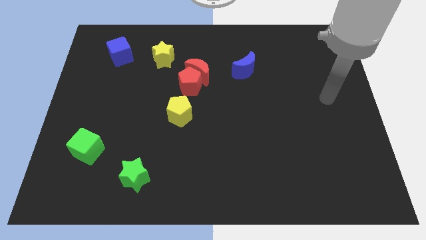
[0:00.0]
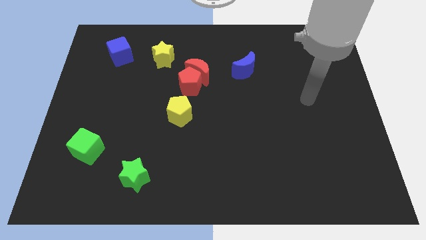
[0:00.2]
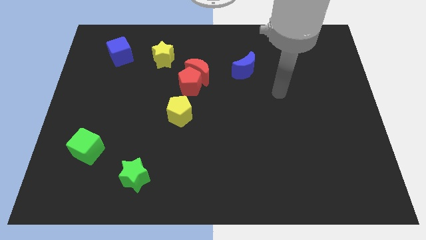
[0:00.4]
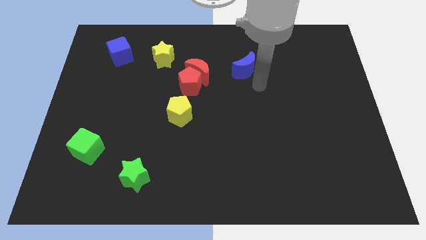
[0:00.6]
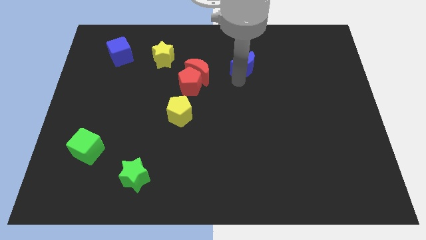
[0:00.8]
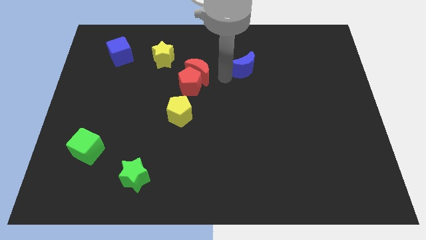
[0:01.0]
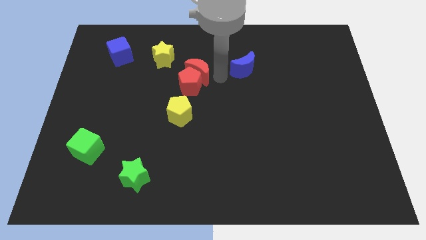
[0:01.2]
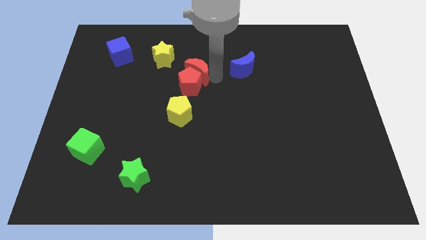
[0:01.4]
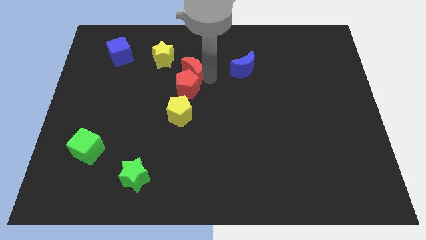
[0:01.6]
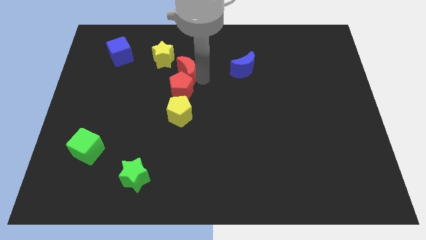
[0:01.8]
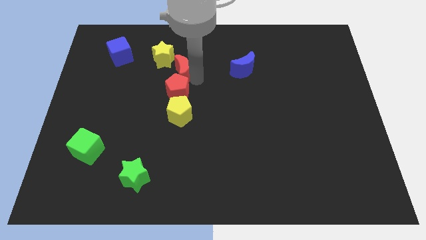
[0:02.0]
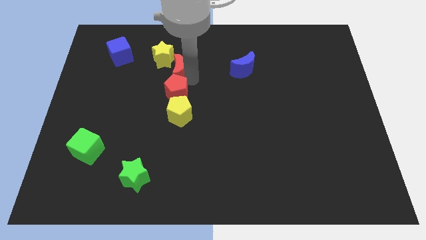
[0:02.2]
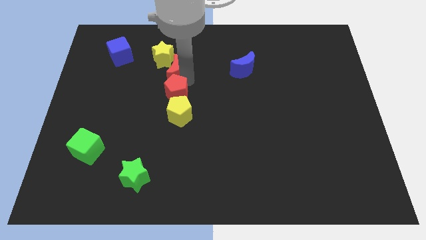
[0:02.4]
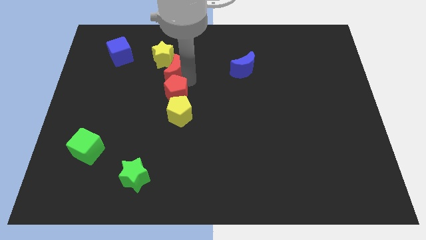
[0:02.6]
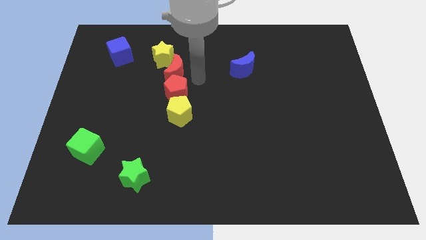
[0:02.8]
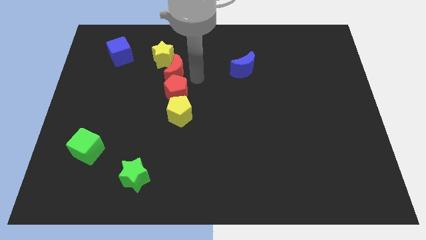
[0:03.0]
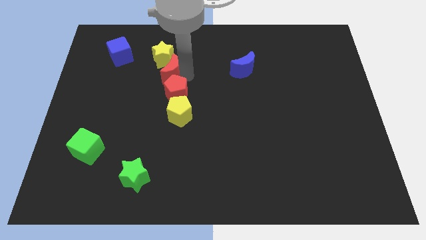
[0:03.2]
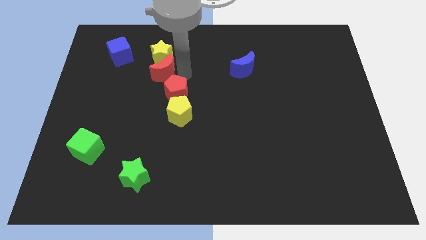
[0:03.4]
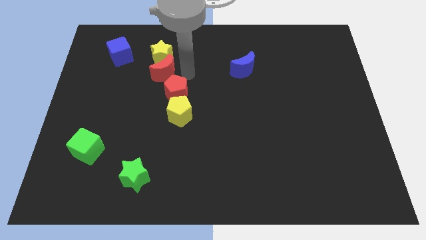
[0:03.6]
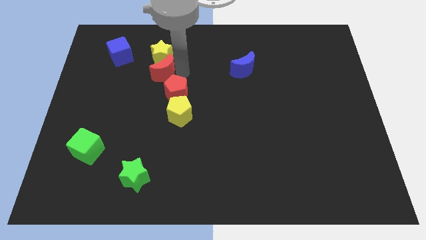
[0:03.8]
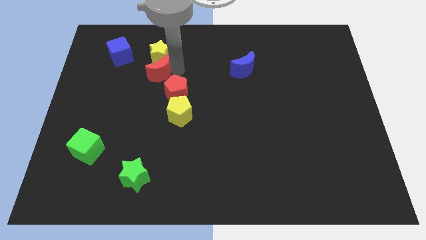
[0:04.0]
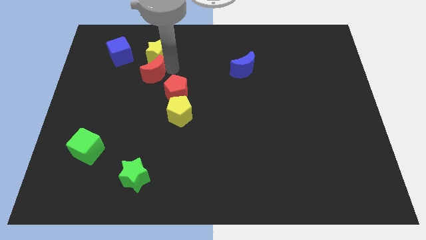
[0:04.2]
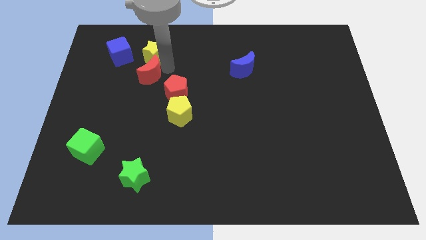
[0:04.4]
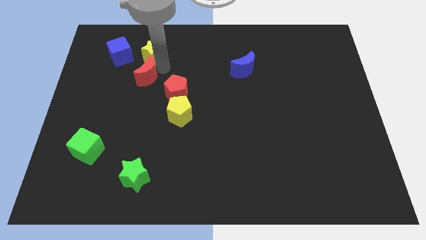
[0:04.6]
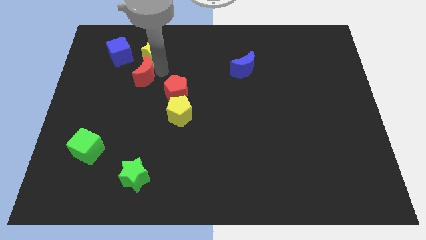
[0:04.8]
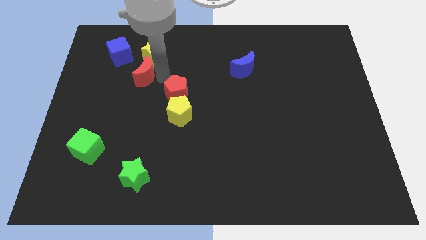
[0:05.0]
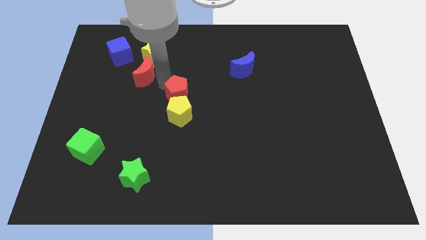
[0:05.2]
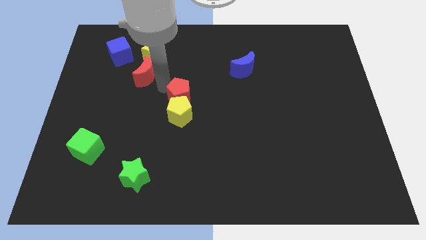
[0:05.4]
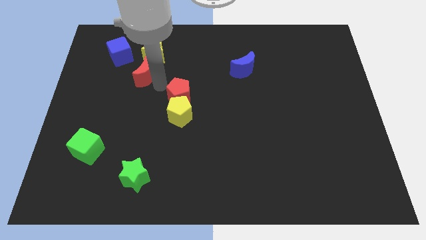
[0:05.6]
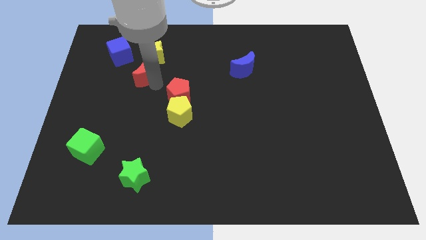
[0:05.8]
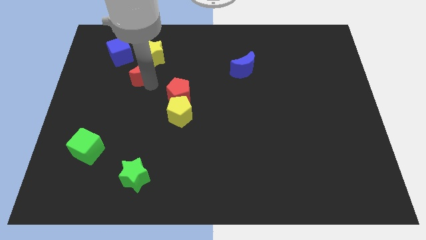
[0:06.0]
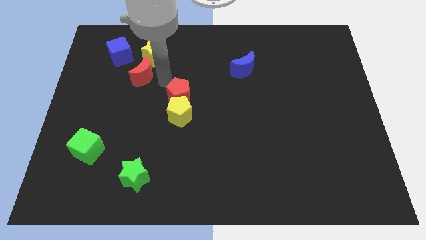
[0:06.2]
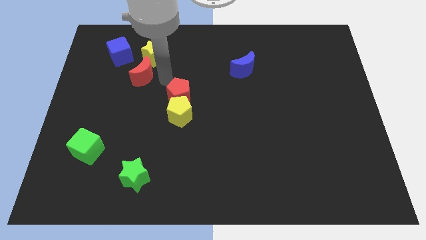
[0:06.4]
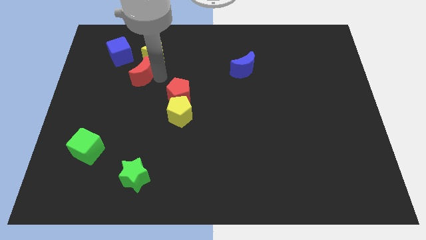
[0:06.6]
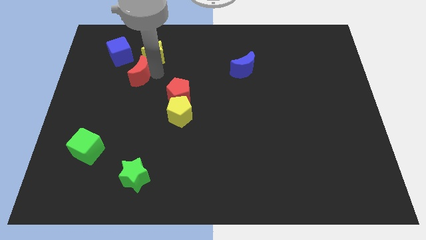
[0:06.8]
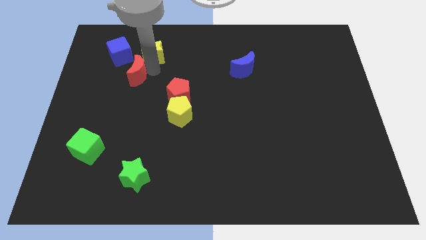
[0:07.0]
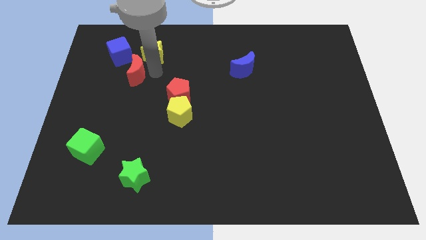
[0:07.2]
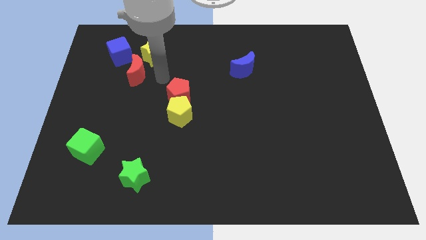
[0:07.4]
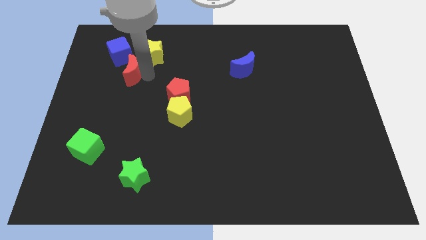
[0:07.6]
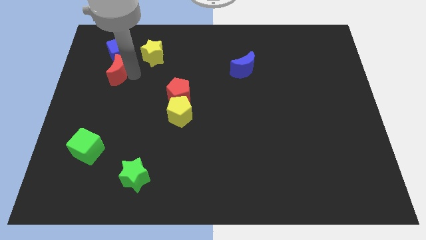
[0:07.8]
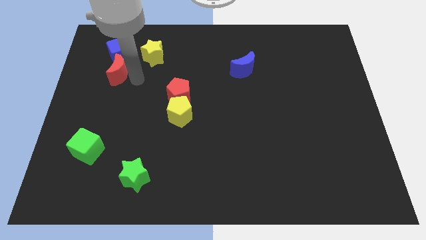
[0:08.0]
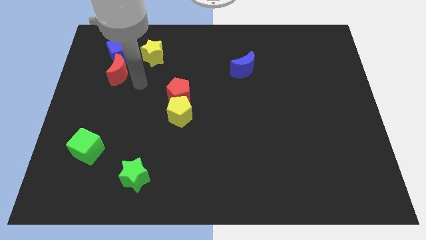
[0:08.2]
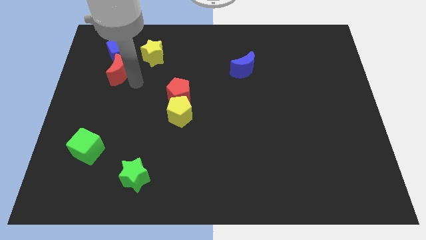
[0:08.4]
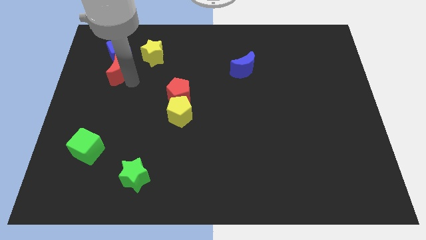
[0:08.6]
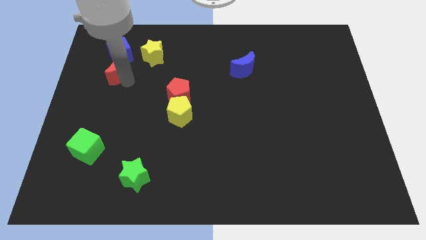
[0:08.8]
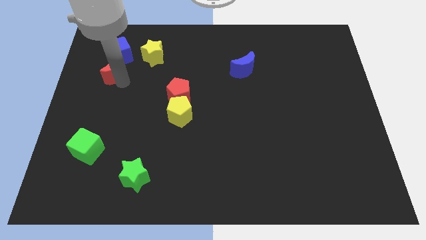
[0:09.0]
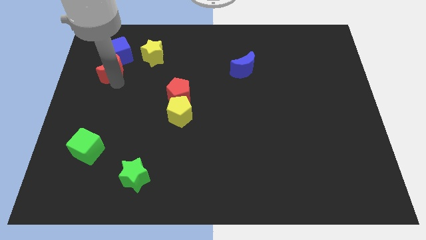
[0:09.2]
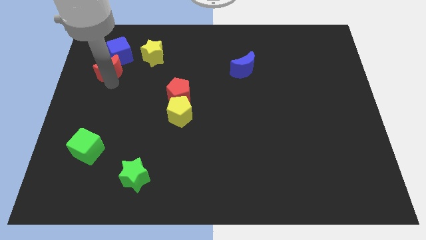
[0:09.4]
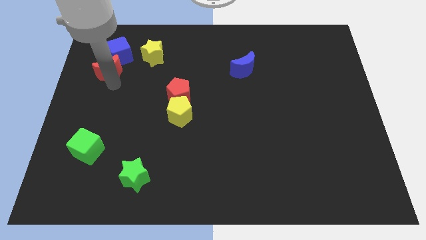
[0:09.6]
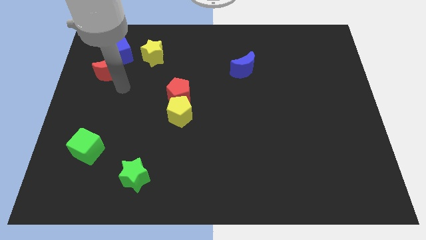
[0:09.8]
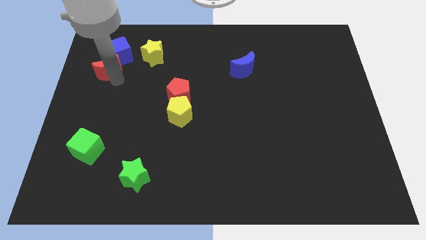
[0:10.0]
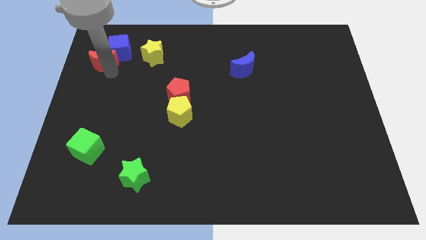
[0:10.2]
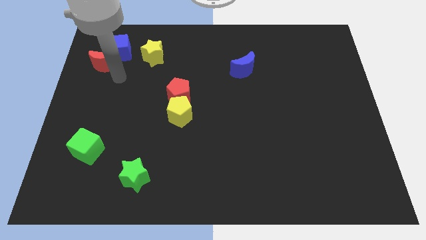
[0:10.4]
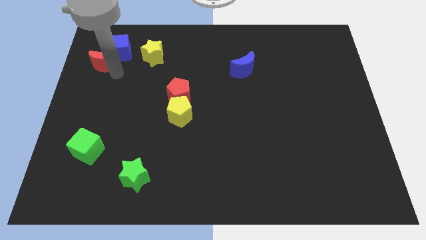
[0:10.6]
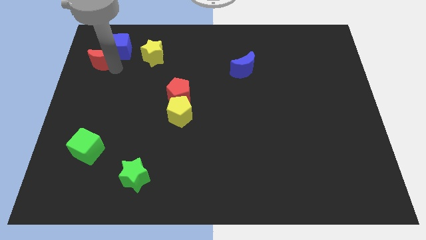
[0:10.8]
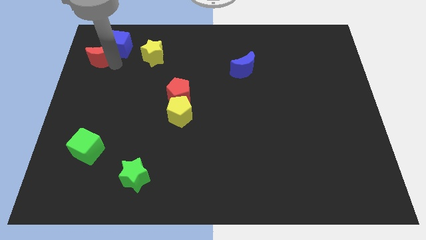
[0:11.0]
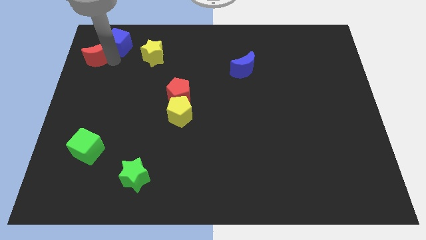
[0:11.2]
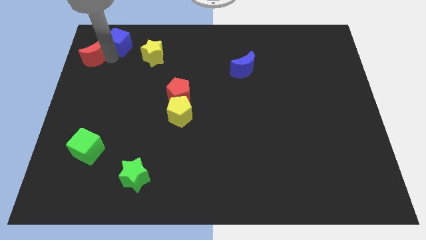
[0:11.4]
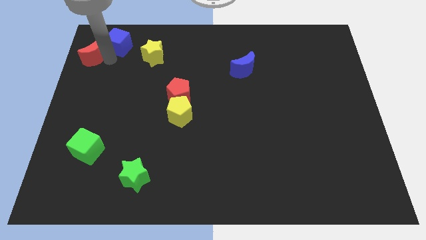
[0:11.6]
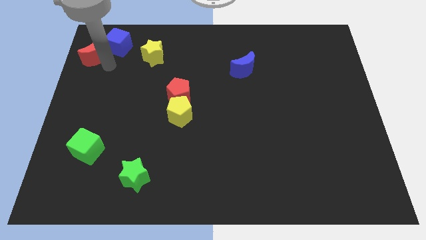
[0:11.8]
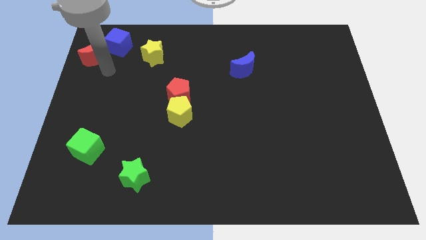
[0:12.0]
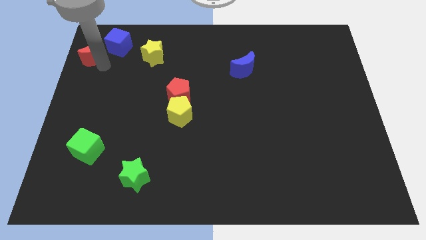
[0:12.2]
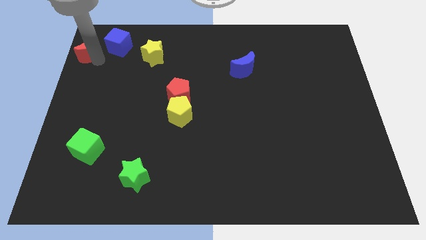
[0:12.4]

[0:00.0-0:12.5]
push the red moon to the top left
